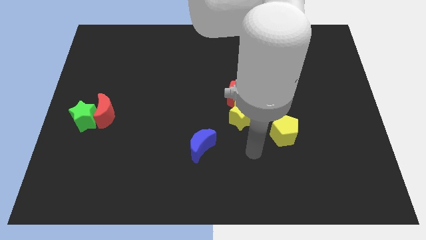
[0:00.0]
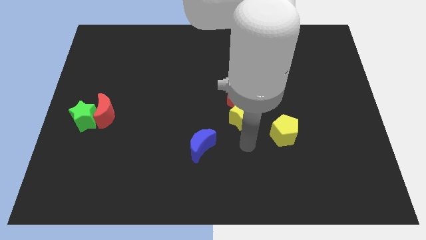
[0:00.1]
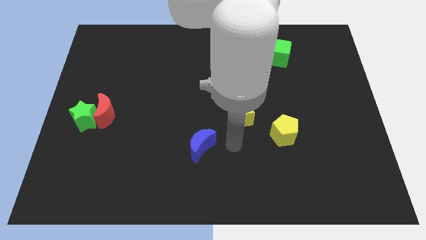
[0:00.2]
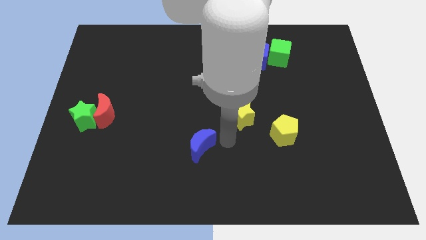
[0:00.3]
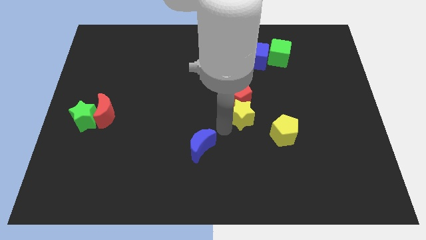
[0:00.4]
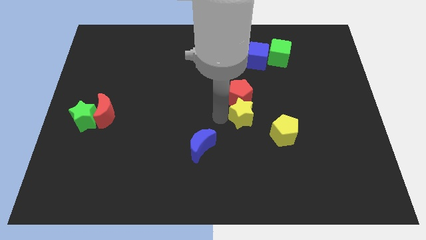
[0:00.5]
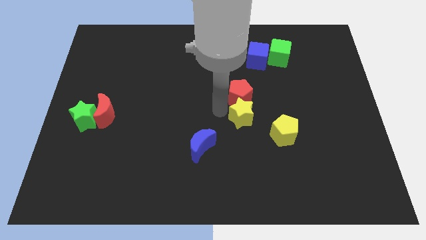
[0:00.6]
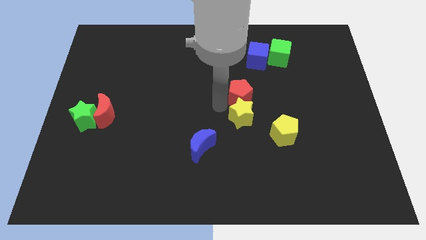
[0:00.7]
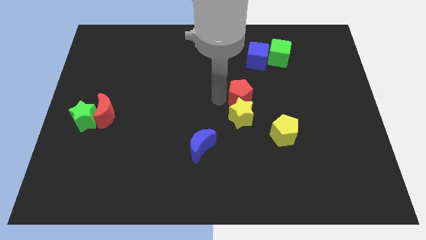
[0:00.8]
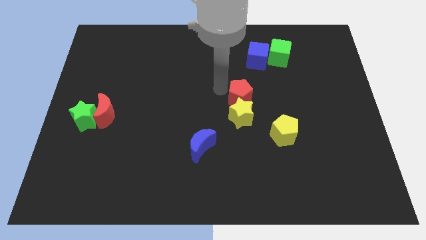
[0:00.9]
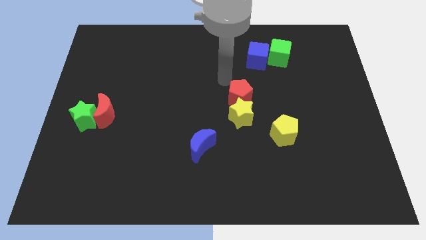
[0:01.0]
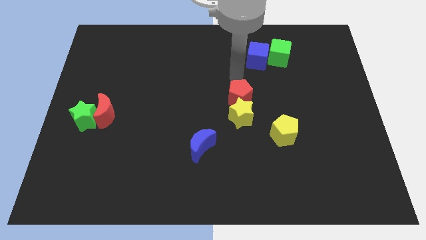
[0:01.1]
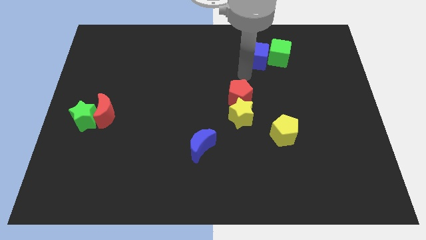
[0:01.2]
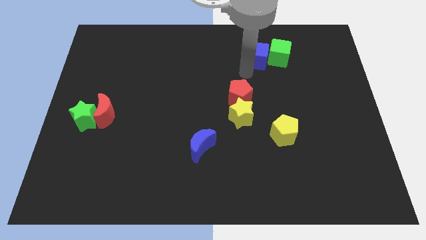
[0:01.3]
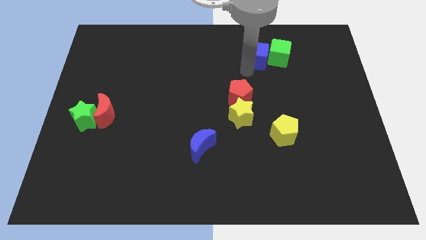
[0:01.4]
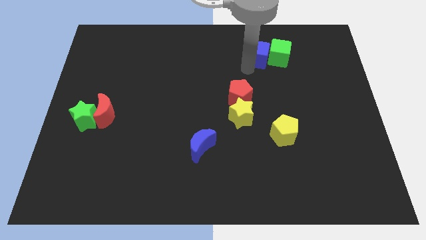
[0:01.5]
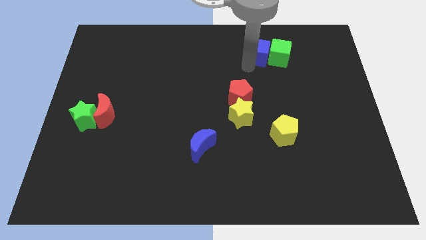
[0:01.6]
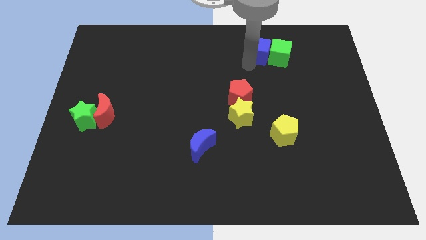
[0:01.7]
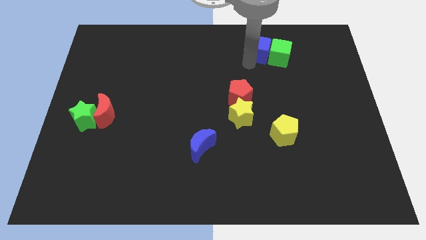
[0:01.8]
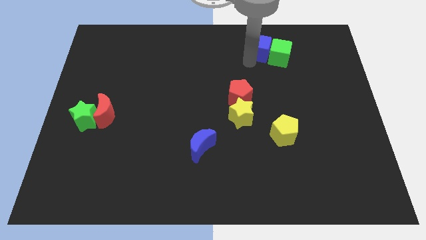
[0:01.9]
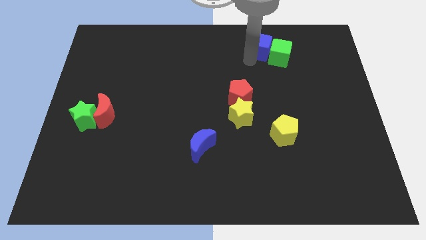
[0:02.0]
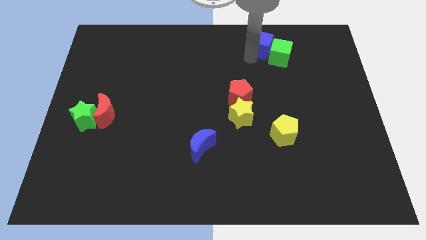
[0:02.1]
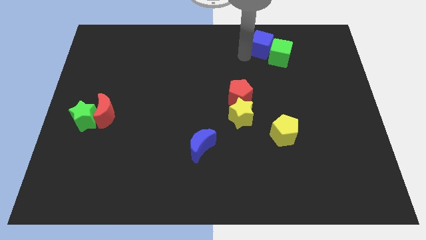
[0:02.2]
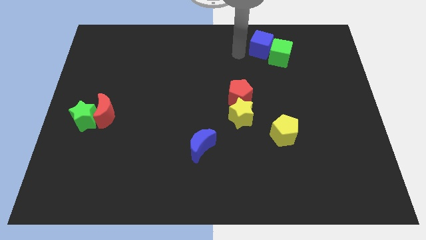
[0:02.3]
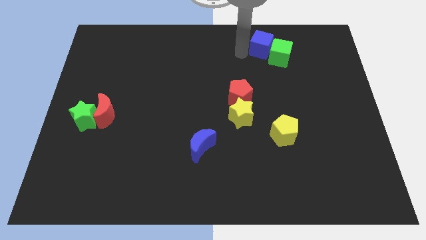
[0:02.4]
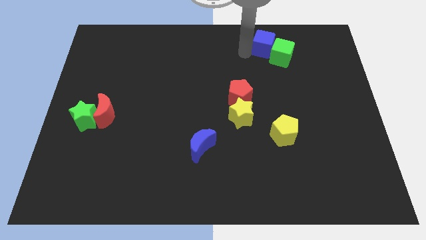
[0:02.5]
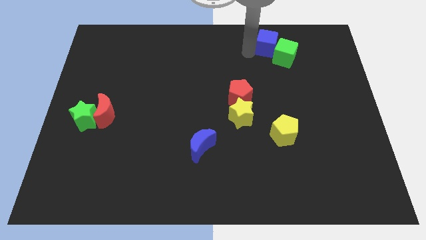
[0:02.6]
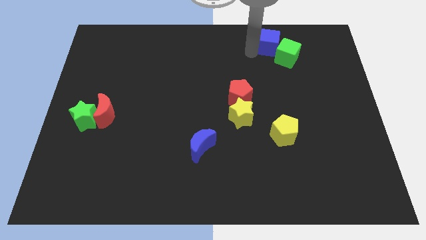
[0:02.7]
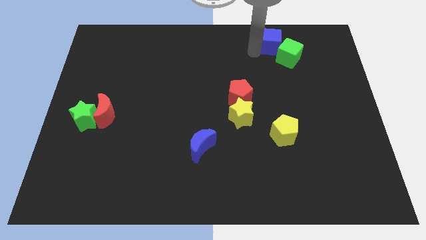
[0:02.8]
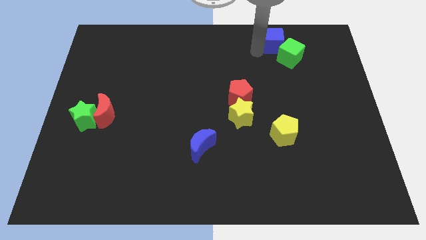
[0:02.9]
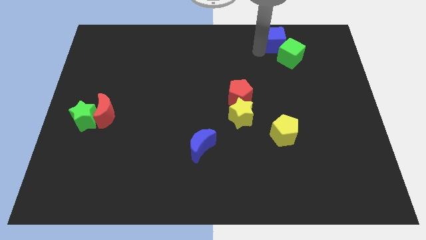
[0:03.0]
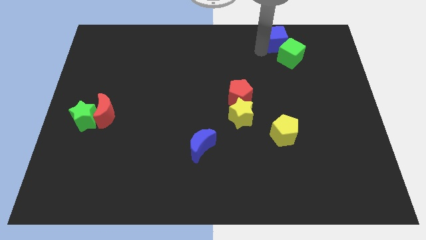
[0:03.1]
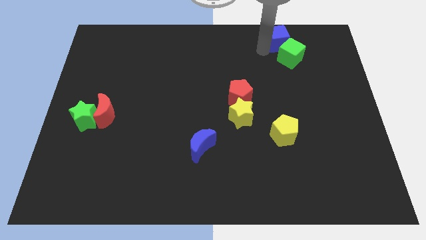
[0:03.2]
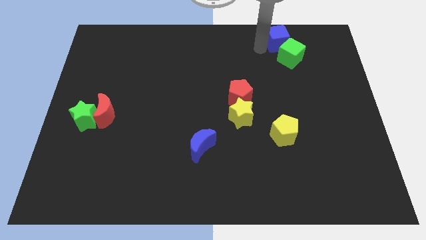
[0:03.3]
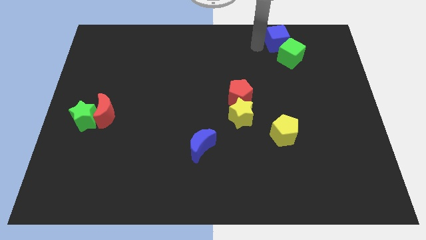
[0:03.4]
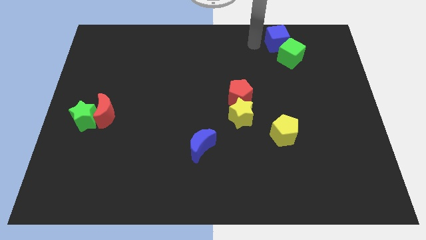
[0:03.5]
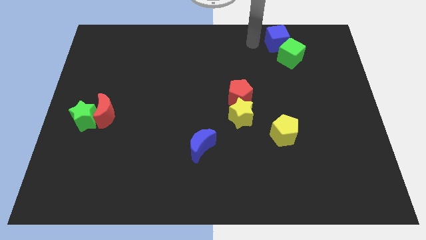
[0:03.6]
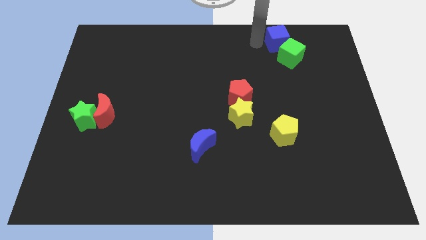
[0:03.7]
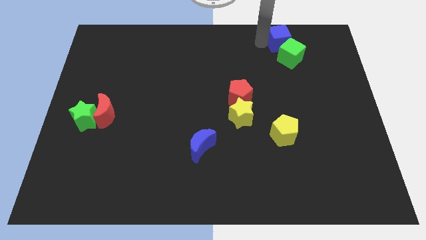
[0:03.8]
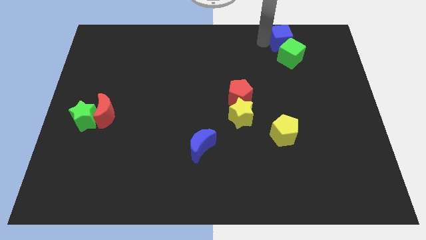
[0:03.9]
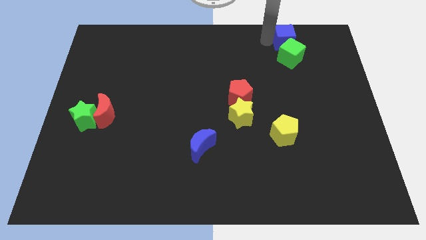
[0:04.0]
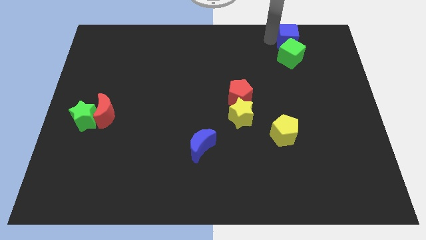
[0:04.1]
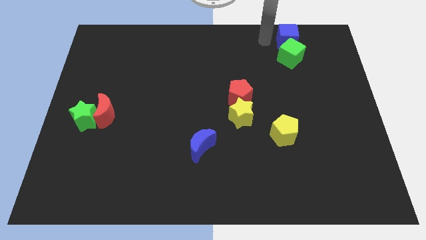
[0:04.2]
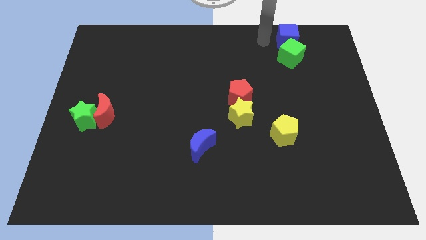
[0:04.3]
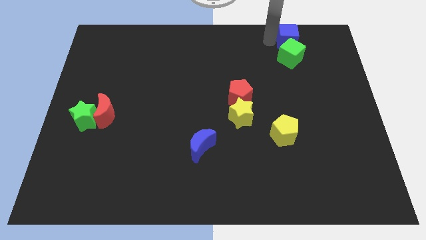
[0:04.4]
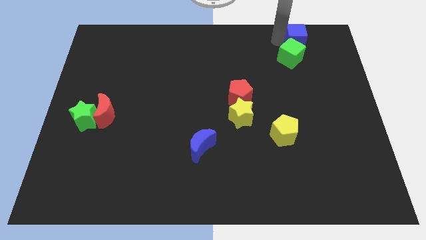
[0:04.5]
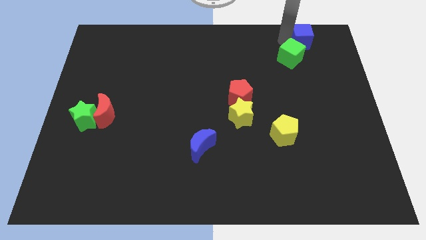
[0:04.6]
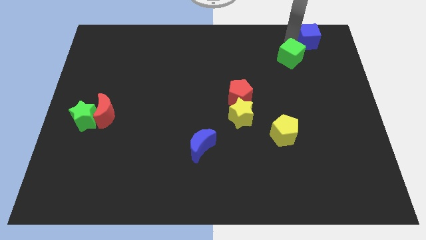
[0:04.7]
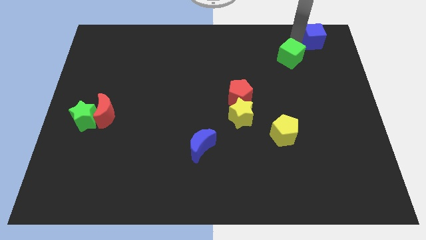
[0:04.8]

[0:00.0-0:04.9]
slide the blue cube to the top right corner

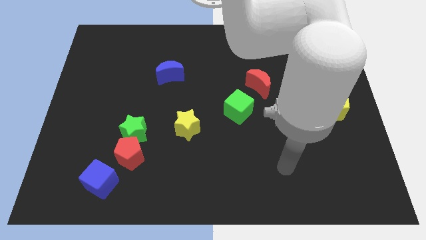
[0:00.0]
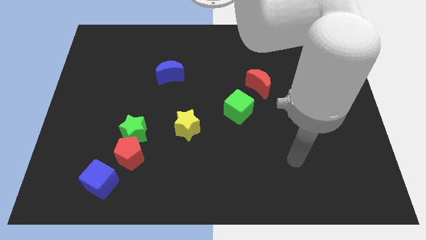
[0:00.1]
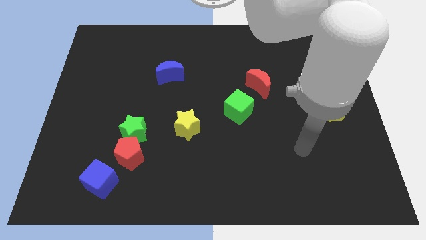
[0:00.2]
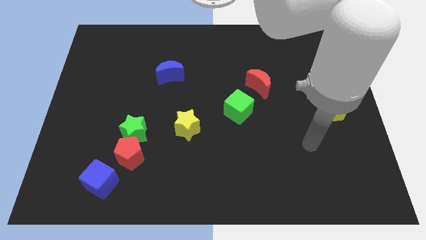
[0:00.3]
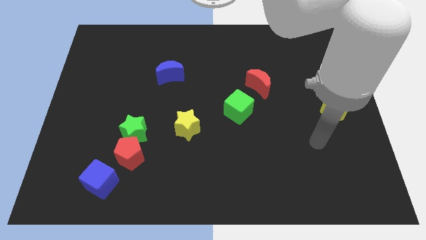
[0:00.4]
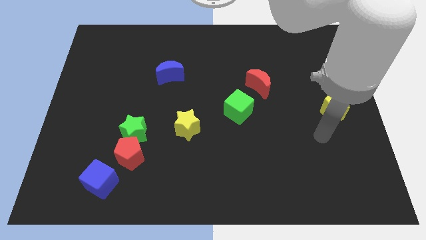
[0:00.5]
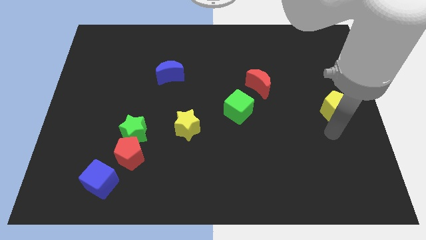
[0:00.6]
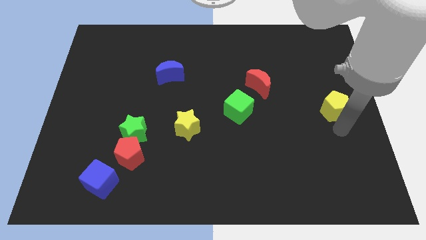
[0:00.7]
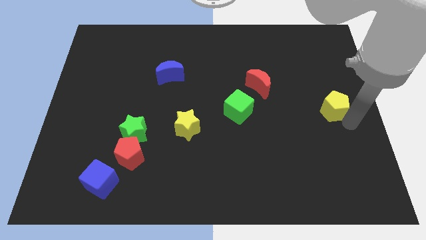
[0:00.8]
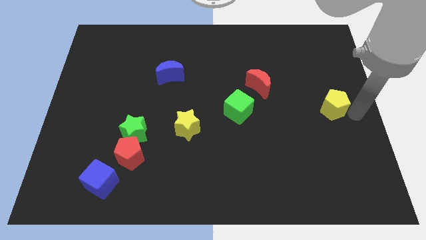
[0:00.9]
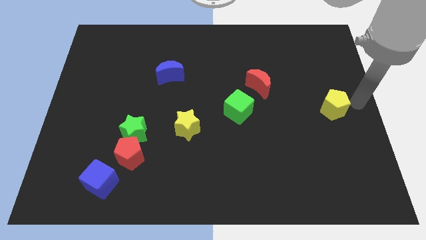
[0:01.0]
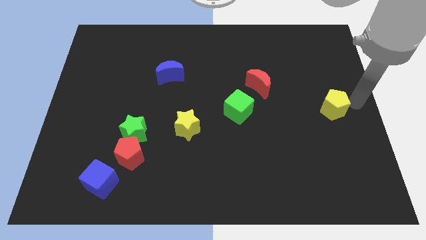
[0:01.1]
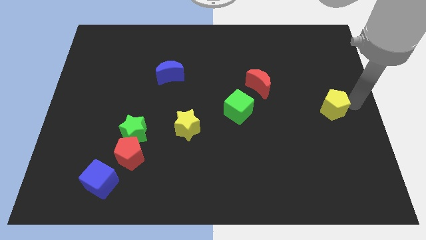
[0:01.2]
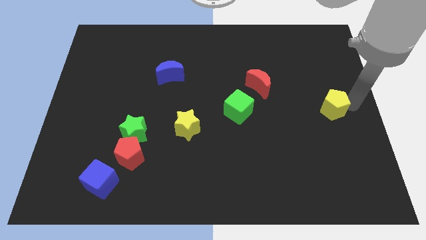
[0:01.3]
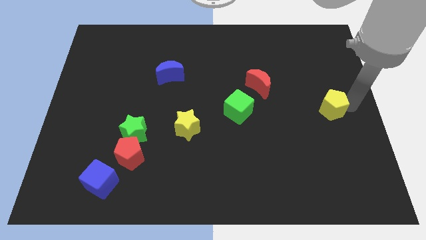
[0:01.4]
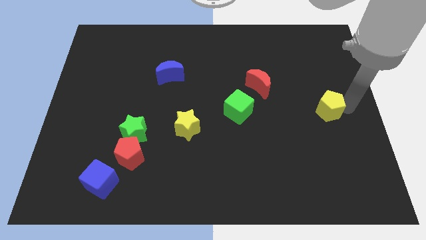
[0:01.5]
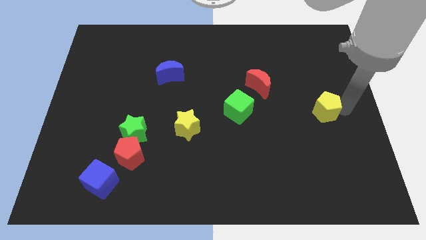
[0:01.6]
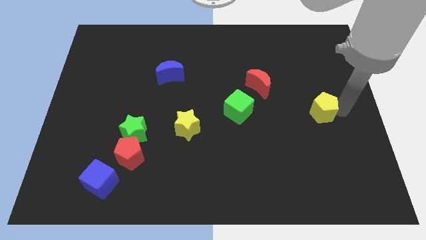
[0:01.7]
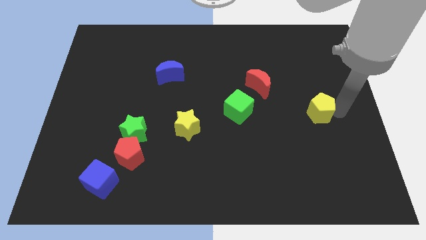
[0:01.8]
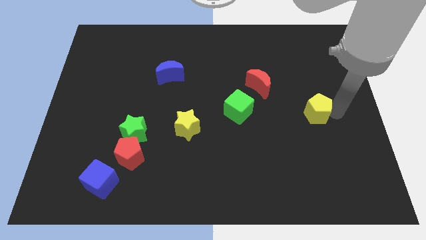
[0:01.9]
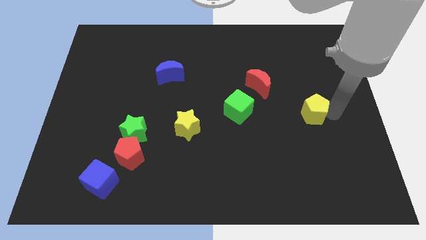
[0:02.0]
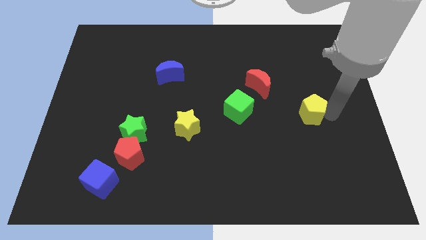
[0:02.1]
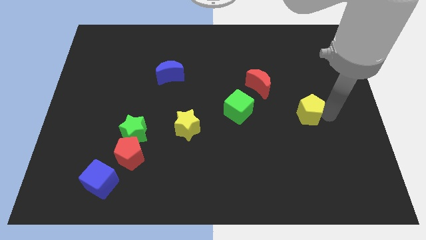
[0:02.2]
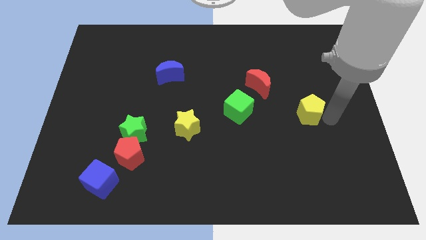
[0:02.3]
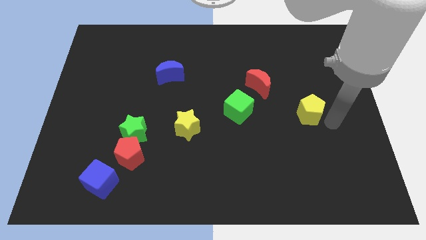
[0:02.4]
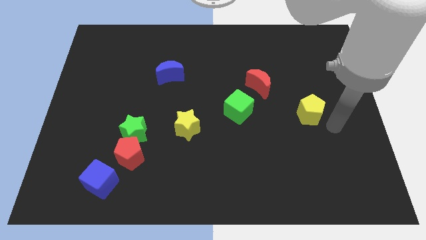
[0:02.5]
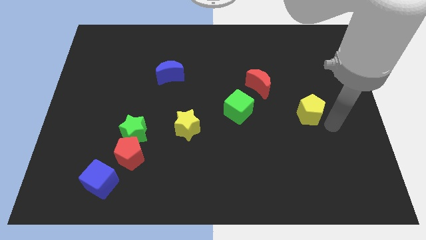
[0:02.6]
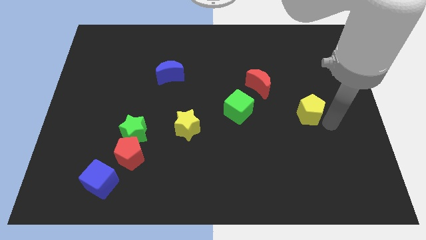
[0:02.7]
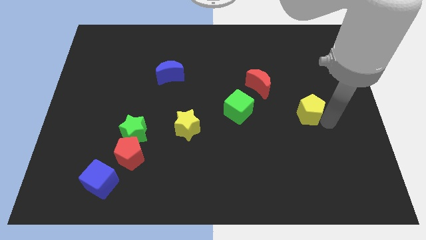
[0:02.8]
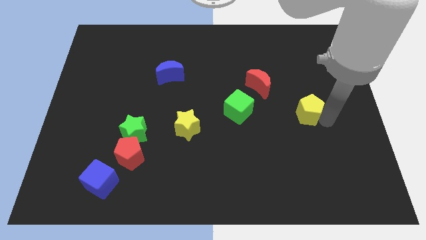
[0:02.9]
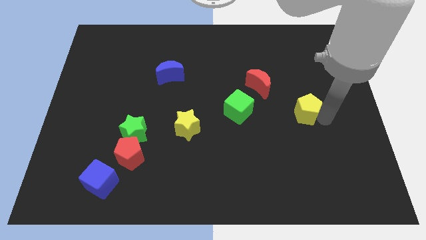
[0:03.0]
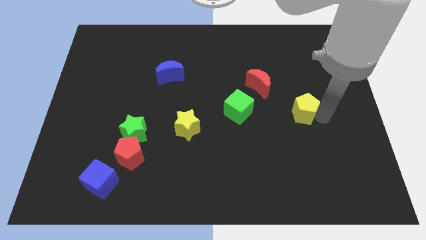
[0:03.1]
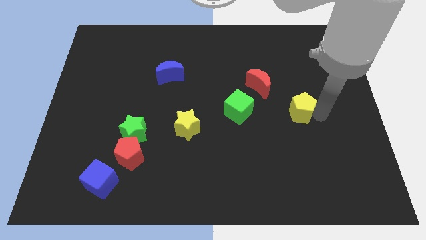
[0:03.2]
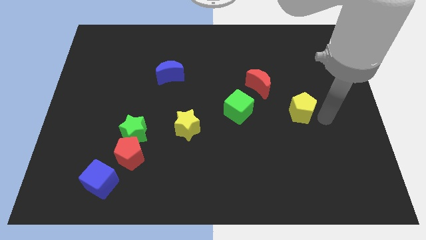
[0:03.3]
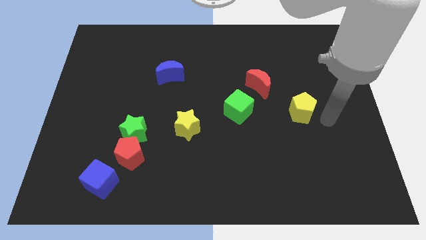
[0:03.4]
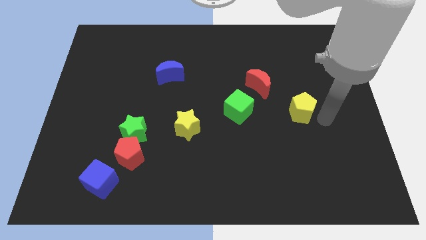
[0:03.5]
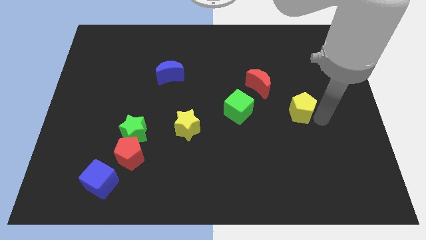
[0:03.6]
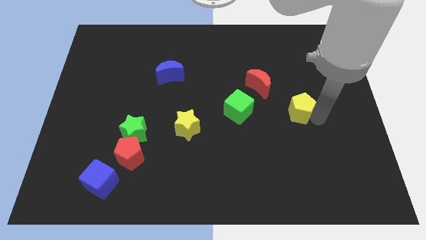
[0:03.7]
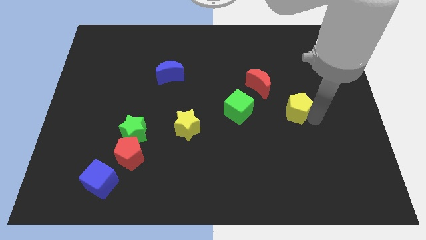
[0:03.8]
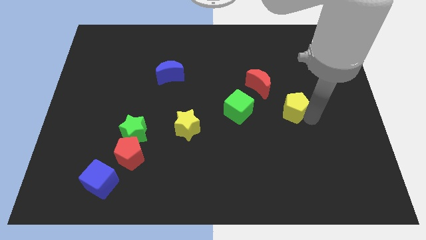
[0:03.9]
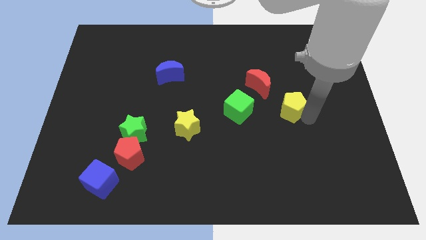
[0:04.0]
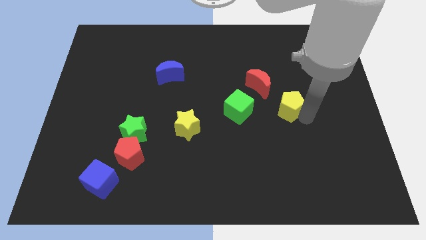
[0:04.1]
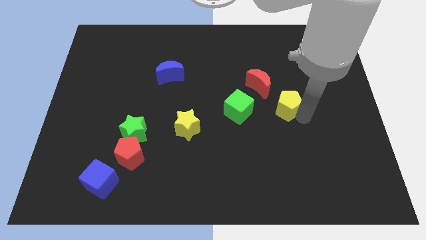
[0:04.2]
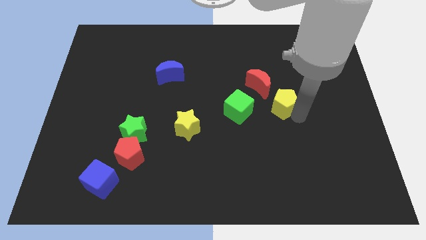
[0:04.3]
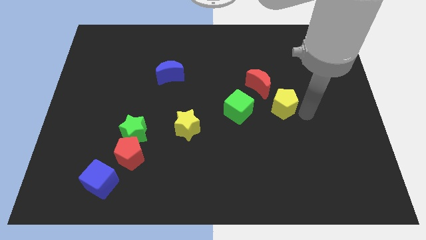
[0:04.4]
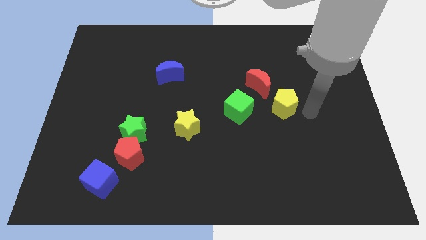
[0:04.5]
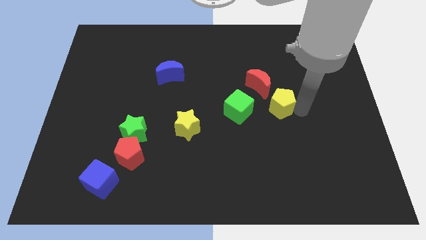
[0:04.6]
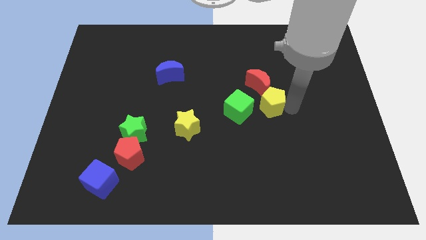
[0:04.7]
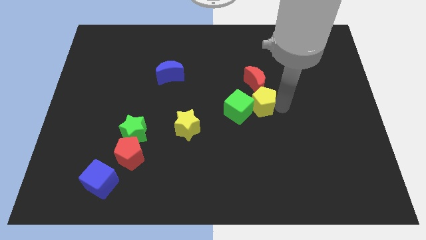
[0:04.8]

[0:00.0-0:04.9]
move the yellow pentagon to the middle of the board
